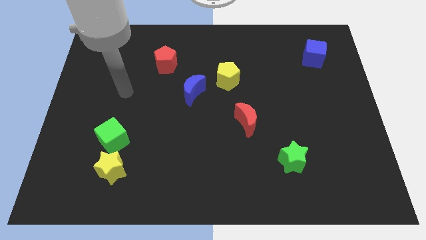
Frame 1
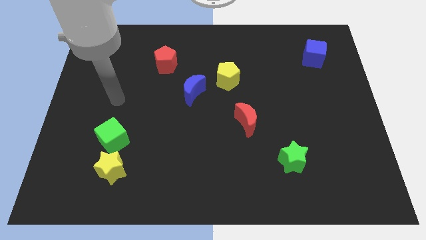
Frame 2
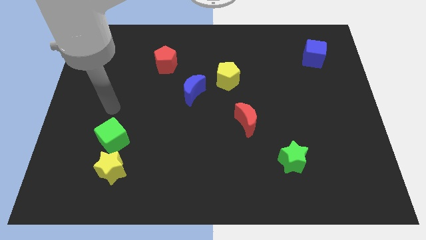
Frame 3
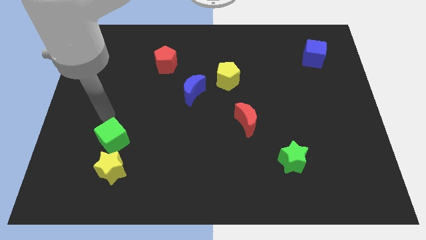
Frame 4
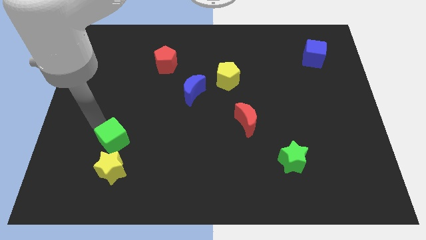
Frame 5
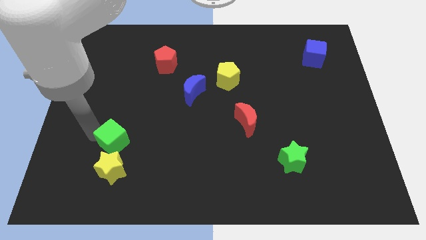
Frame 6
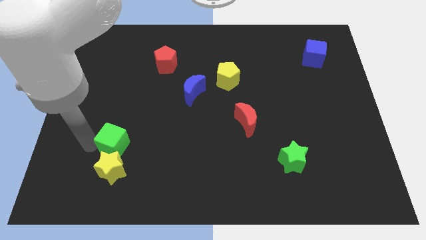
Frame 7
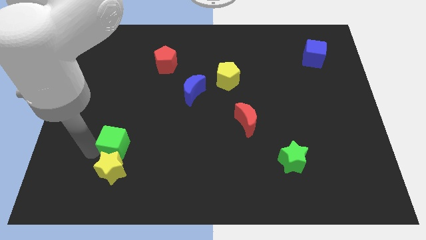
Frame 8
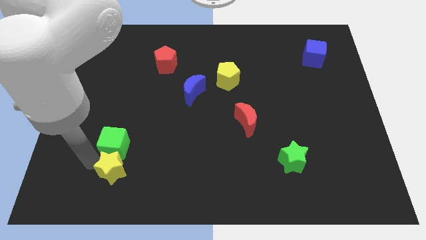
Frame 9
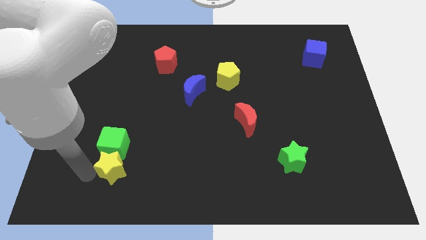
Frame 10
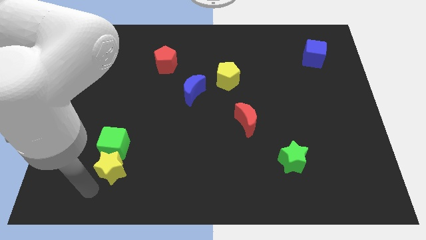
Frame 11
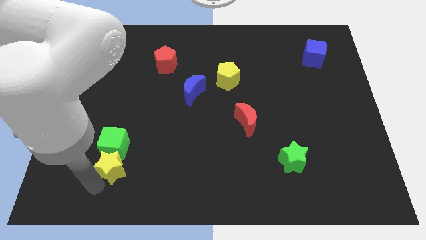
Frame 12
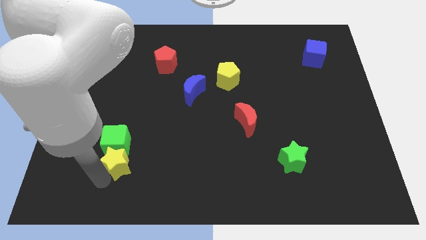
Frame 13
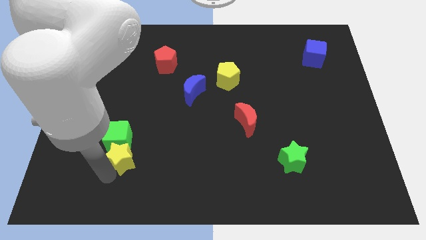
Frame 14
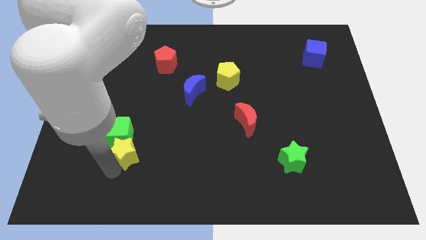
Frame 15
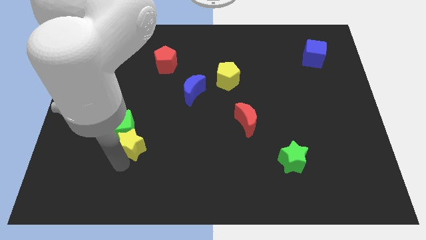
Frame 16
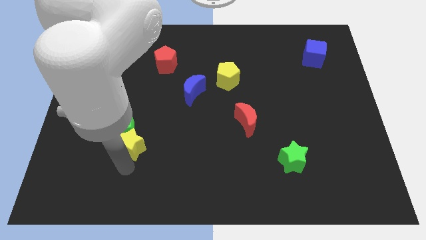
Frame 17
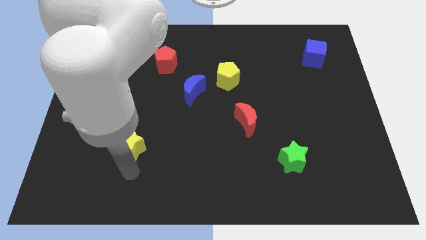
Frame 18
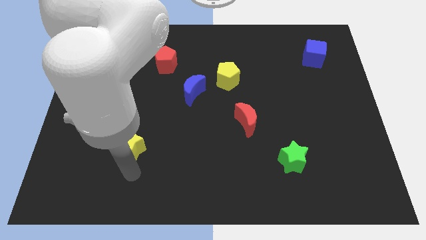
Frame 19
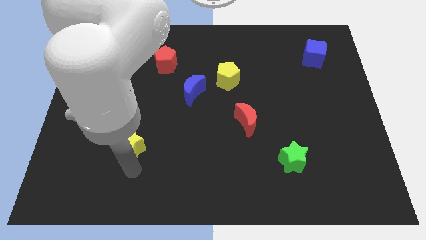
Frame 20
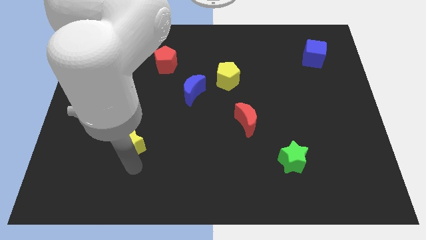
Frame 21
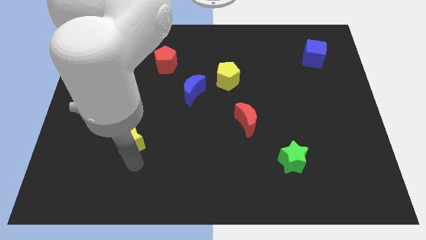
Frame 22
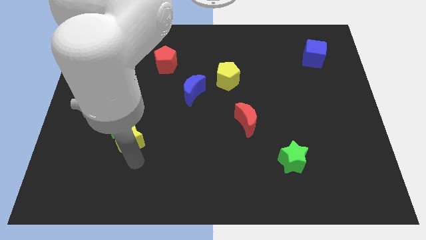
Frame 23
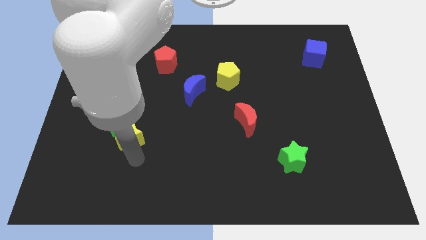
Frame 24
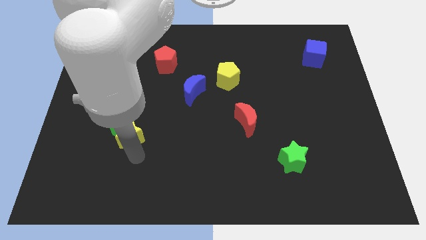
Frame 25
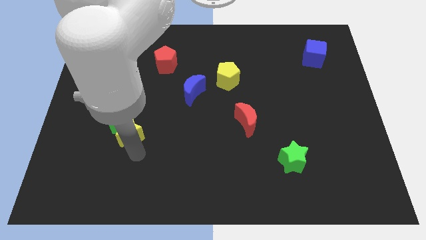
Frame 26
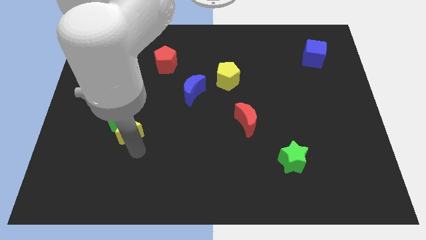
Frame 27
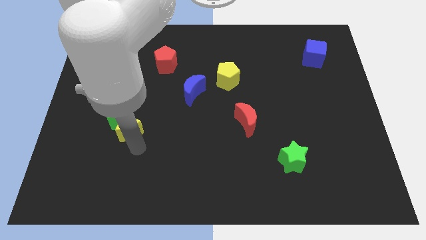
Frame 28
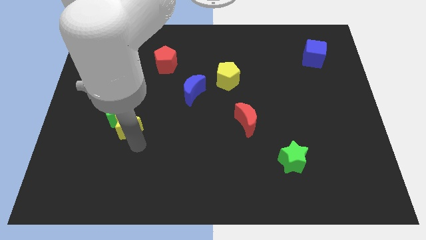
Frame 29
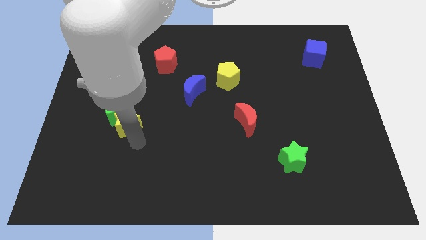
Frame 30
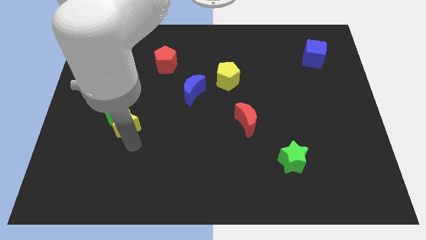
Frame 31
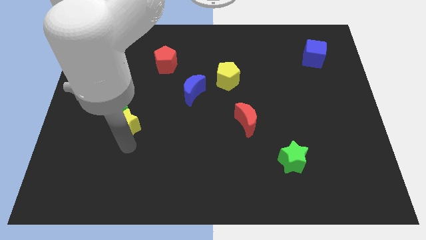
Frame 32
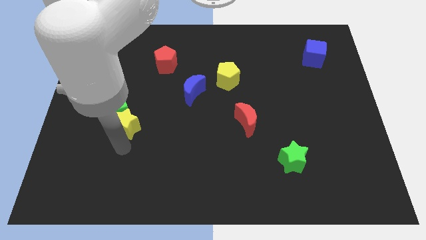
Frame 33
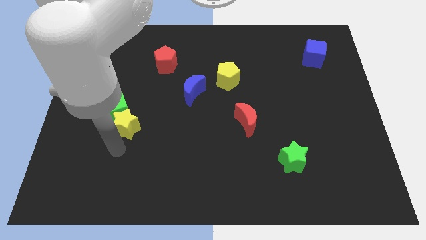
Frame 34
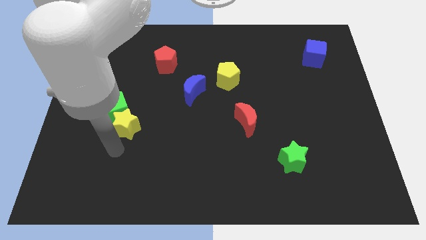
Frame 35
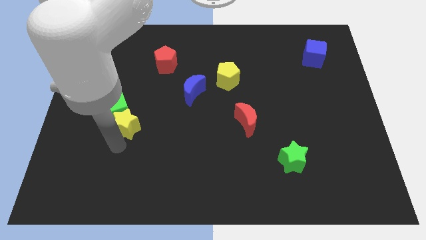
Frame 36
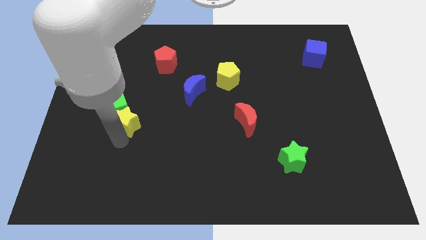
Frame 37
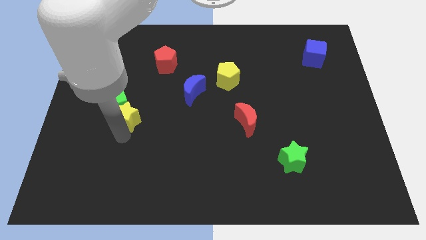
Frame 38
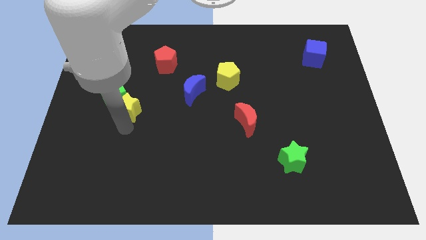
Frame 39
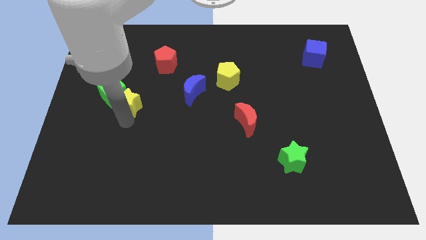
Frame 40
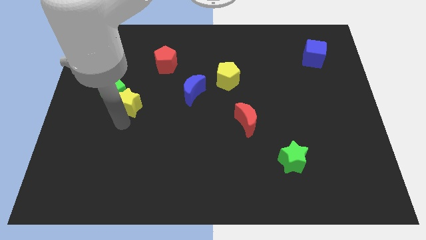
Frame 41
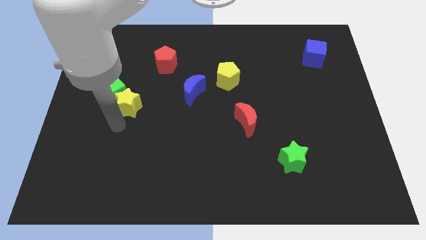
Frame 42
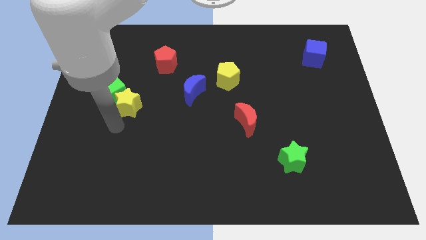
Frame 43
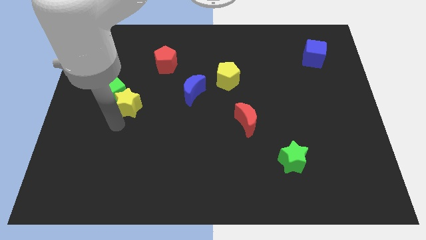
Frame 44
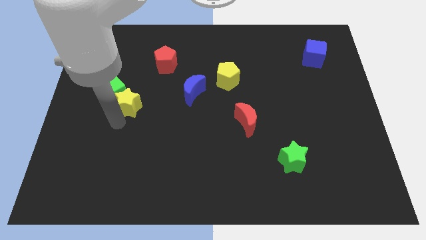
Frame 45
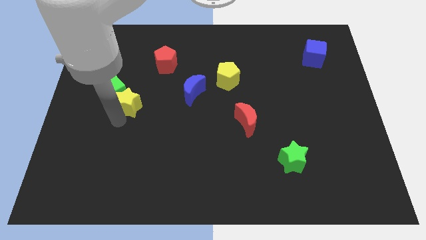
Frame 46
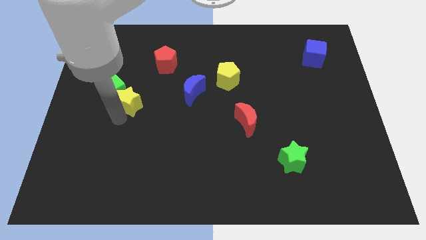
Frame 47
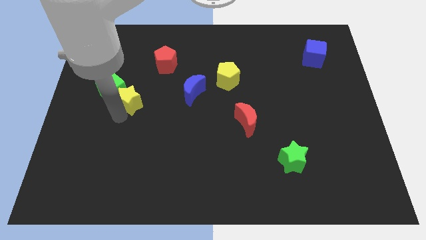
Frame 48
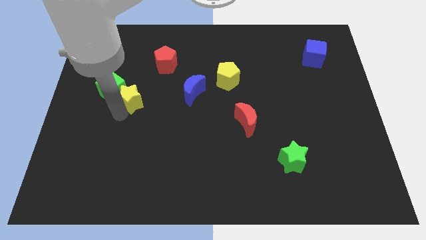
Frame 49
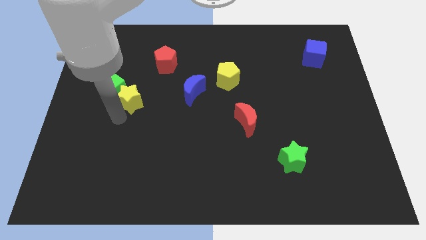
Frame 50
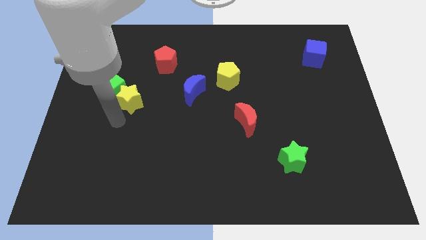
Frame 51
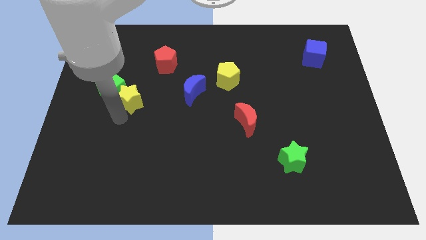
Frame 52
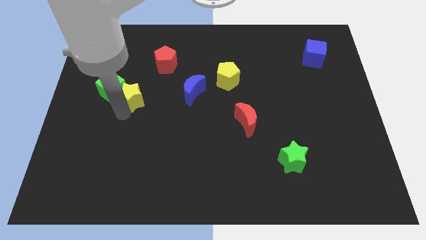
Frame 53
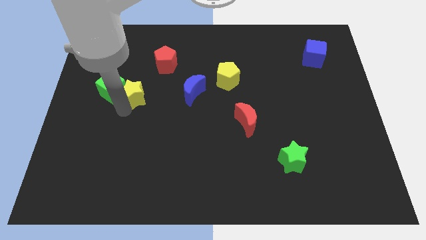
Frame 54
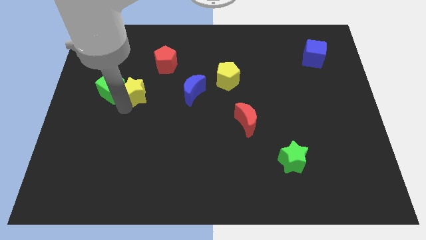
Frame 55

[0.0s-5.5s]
push the yellow star up

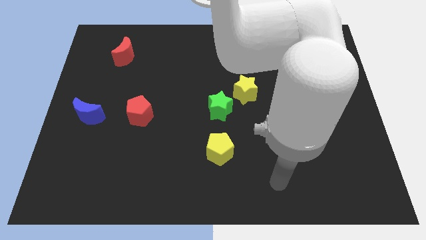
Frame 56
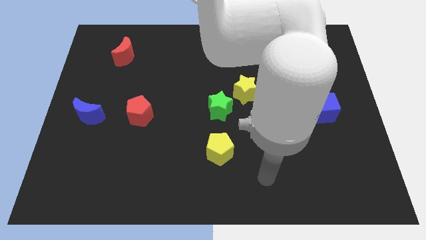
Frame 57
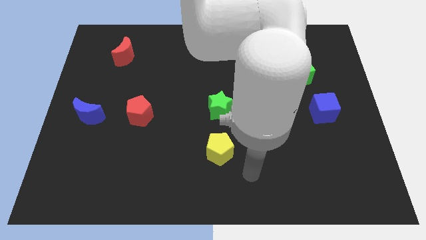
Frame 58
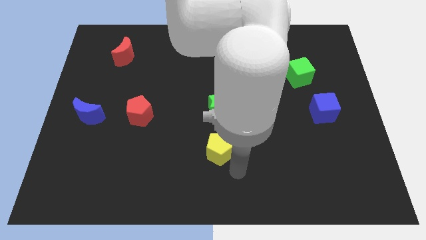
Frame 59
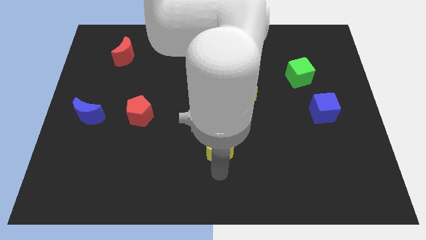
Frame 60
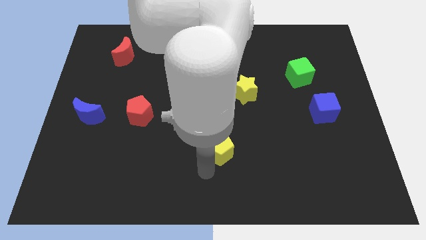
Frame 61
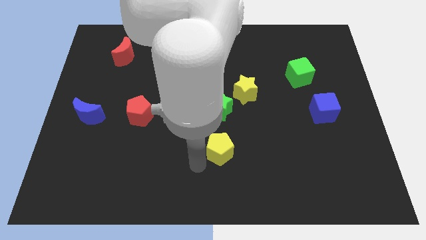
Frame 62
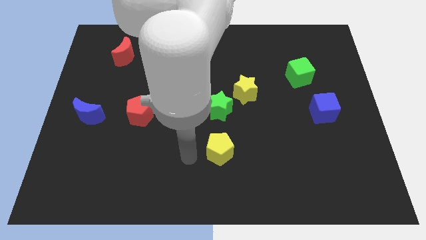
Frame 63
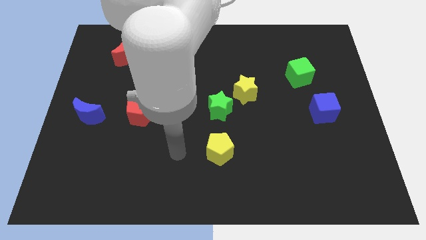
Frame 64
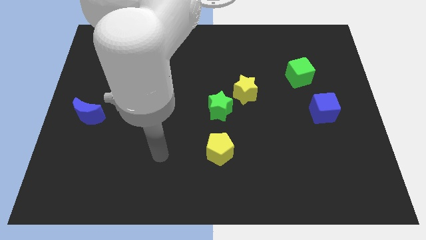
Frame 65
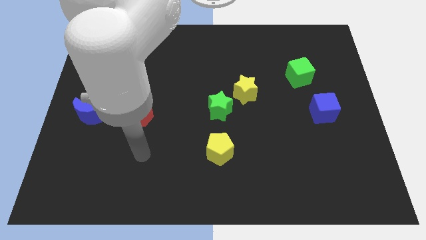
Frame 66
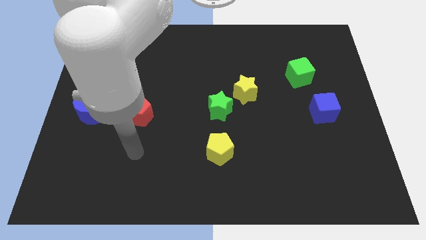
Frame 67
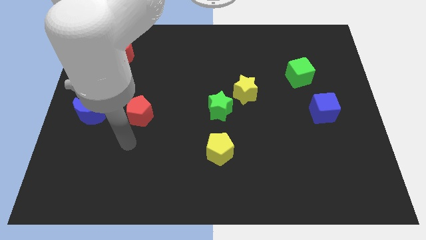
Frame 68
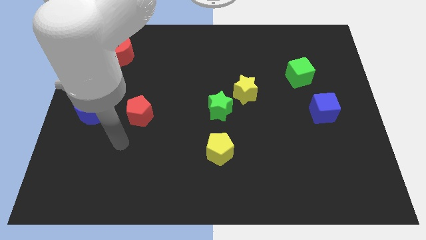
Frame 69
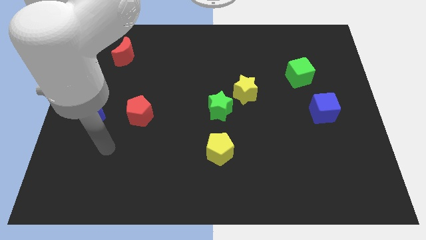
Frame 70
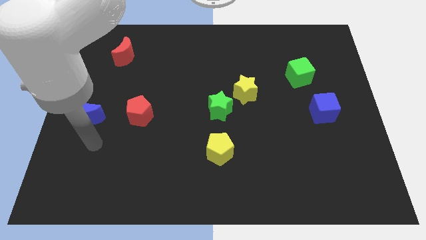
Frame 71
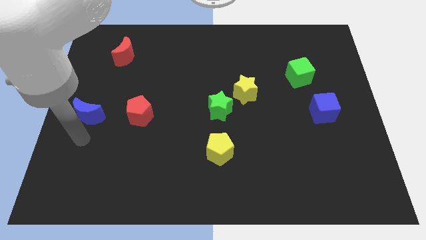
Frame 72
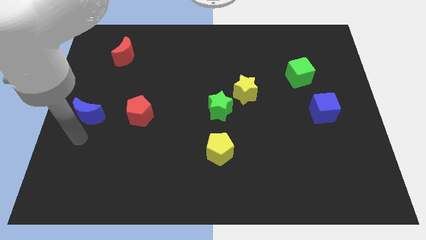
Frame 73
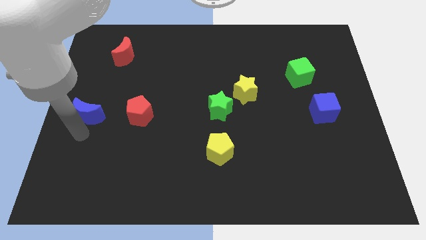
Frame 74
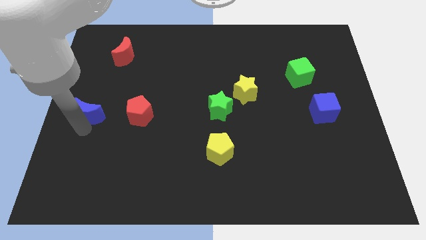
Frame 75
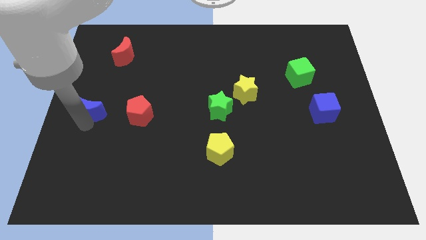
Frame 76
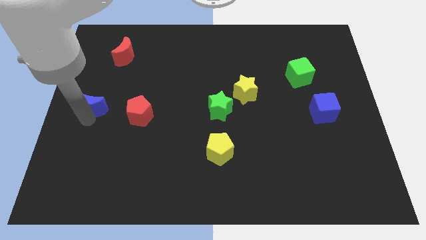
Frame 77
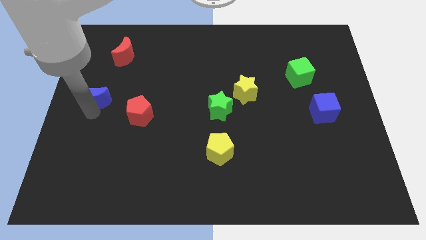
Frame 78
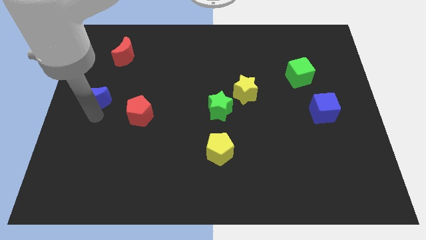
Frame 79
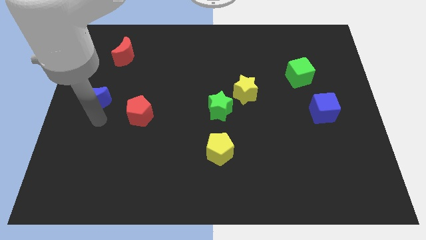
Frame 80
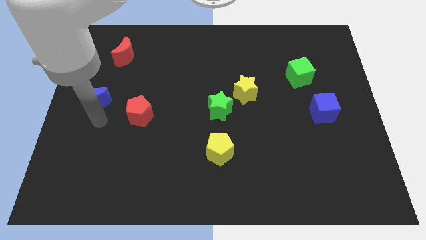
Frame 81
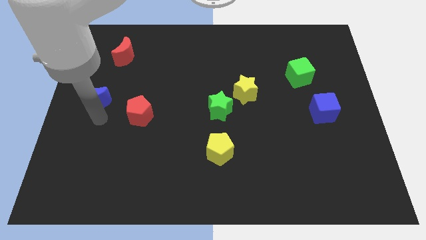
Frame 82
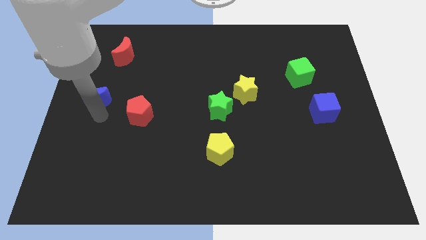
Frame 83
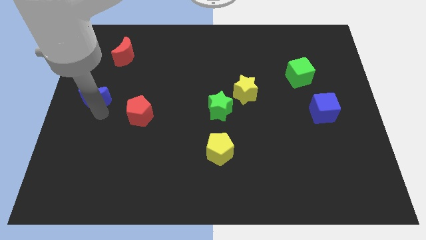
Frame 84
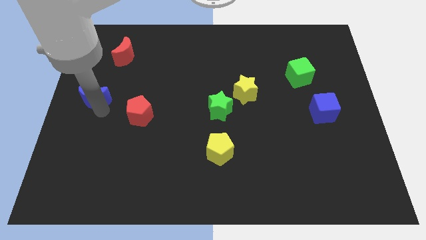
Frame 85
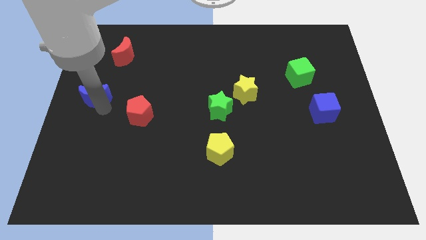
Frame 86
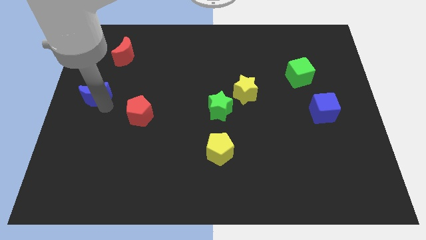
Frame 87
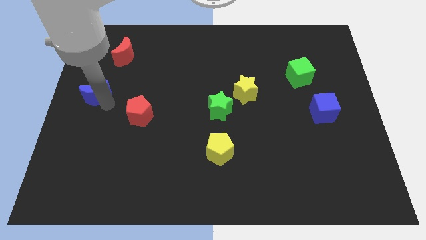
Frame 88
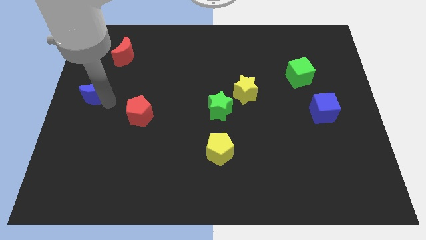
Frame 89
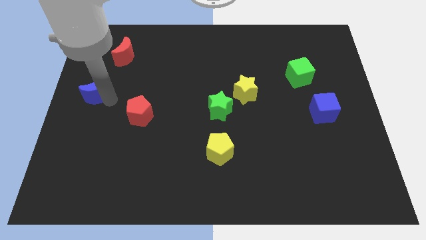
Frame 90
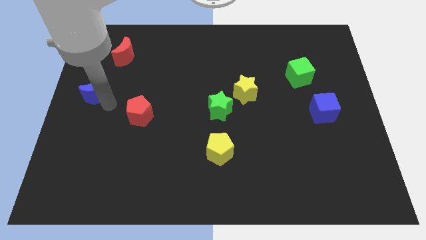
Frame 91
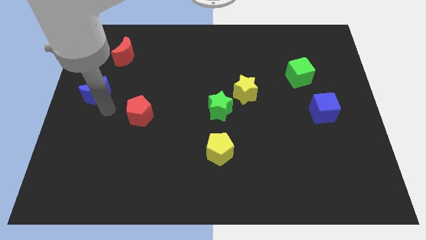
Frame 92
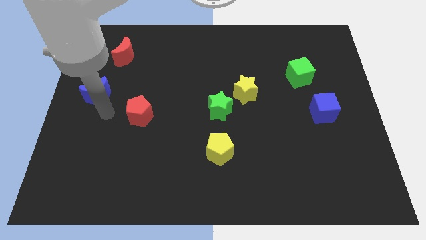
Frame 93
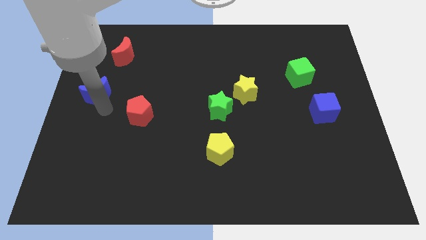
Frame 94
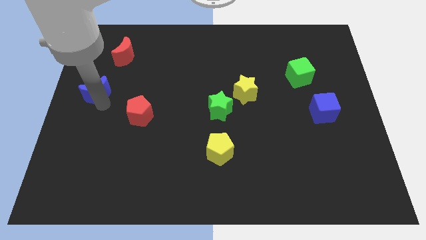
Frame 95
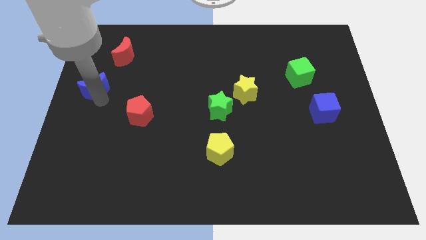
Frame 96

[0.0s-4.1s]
push the blue moon up a little bit
